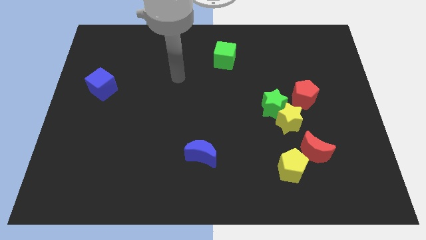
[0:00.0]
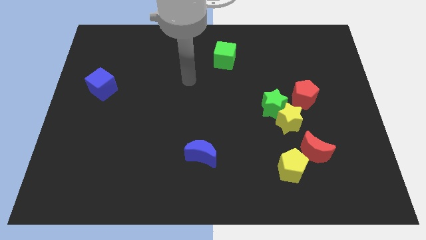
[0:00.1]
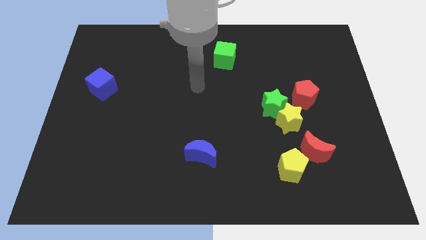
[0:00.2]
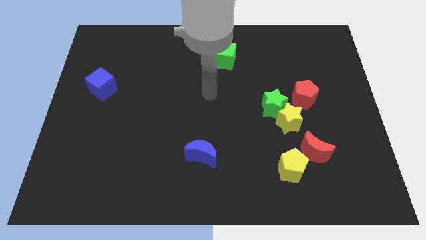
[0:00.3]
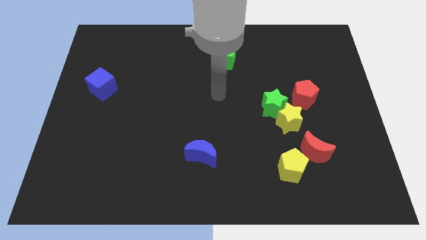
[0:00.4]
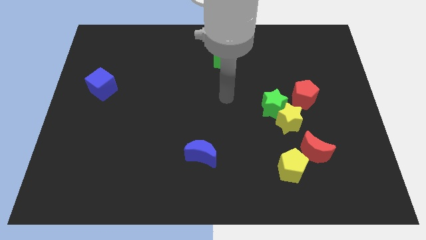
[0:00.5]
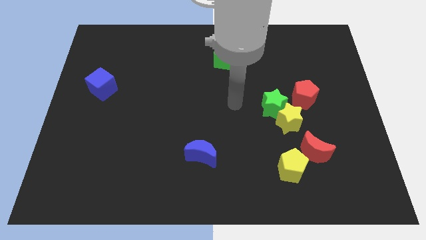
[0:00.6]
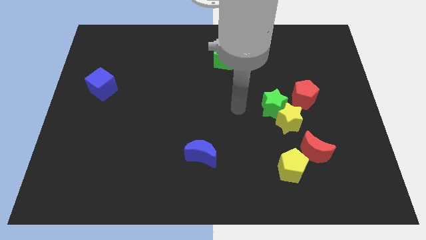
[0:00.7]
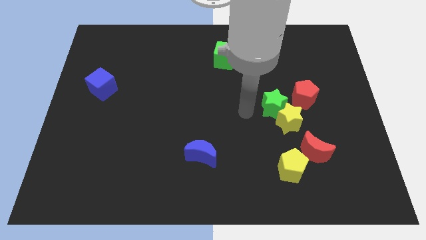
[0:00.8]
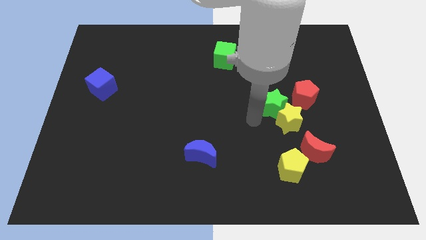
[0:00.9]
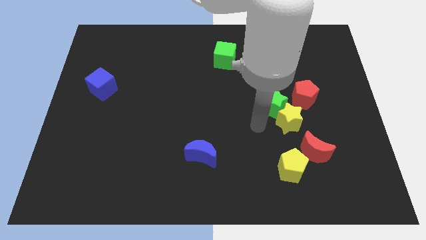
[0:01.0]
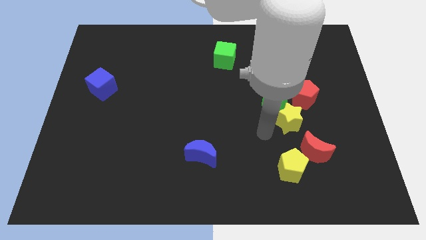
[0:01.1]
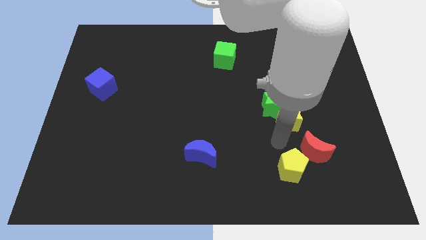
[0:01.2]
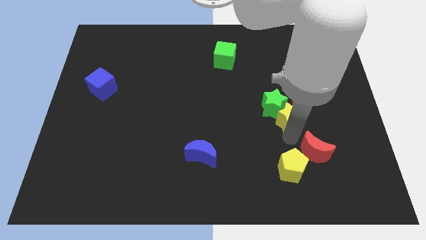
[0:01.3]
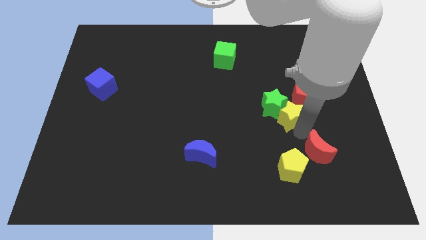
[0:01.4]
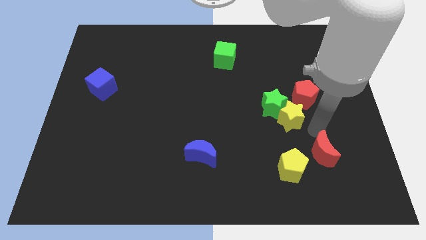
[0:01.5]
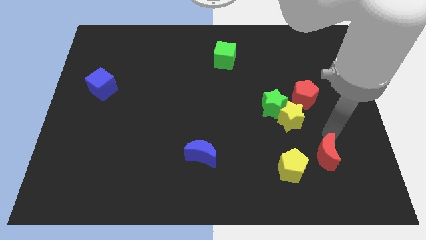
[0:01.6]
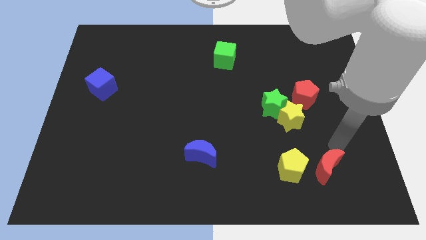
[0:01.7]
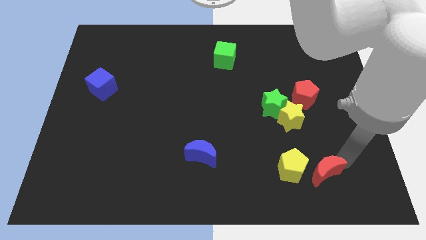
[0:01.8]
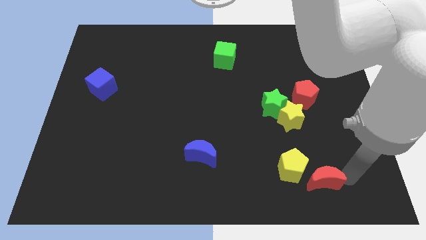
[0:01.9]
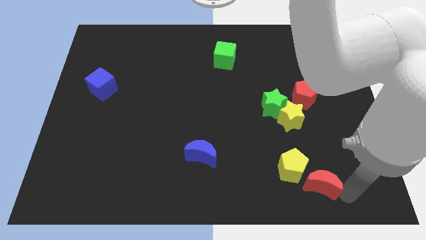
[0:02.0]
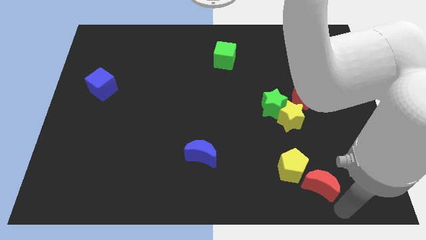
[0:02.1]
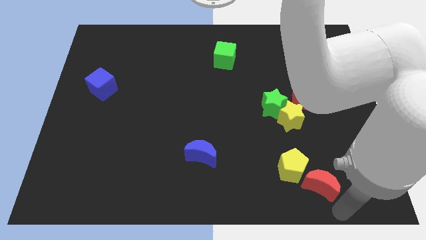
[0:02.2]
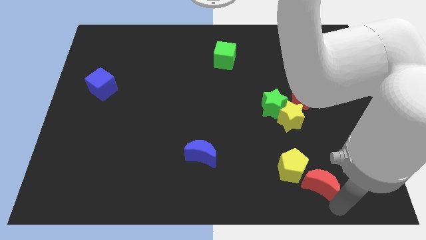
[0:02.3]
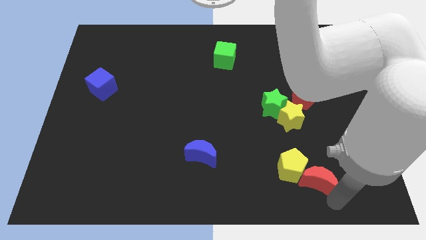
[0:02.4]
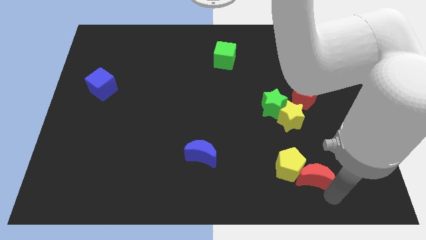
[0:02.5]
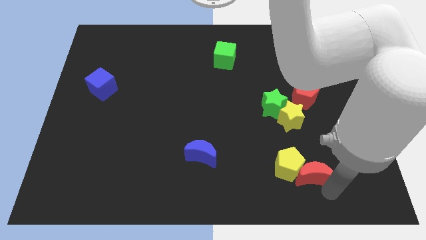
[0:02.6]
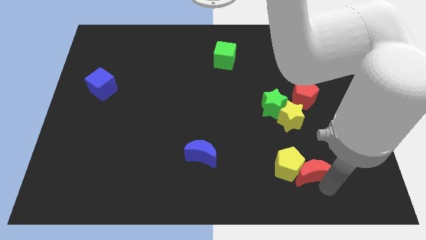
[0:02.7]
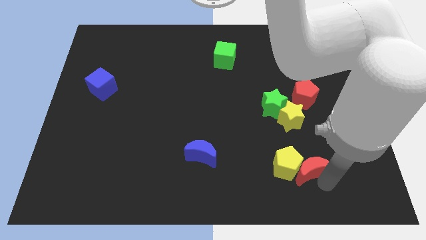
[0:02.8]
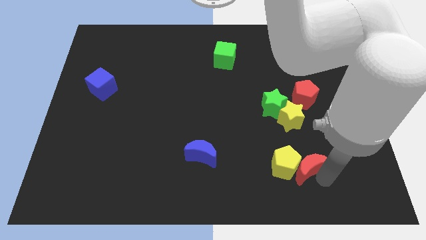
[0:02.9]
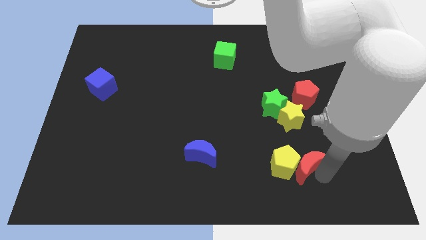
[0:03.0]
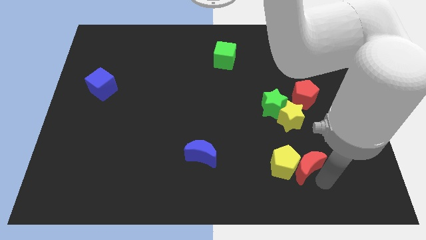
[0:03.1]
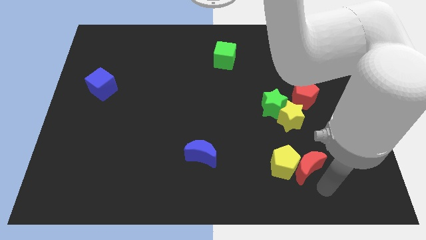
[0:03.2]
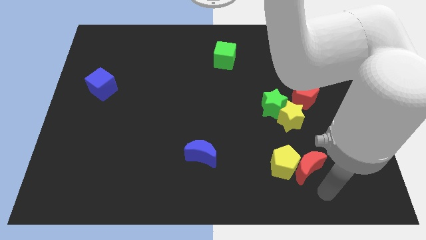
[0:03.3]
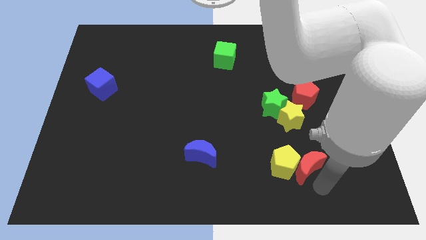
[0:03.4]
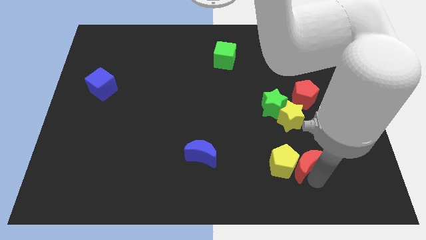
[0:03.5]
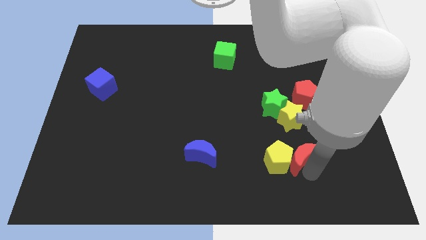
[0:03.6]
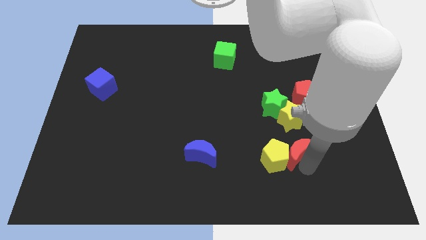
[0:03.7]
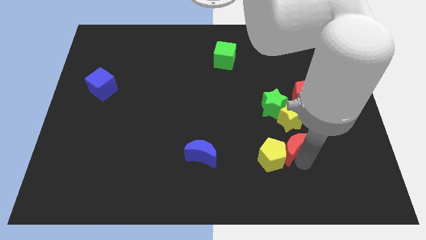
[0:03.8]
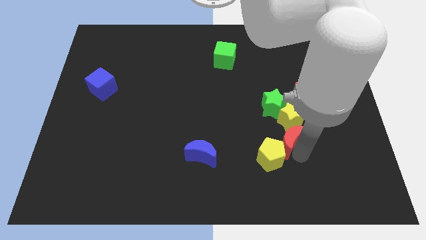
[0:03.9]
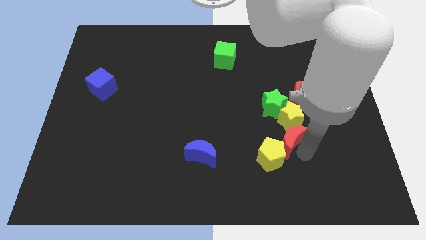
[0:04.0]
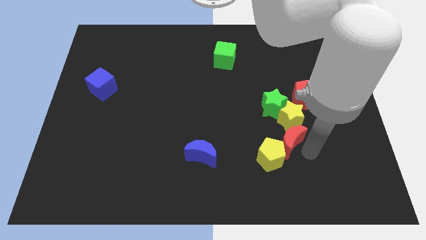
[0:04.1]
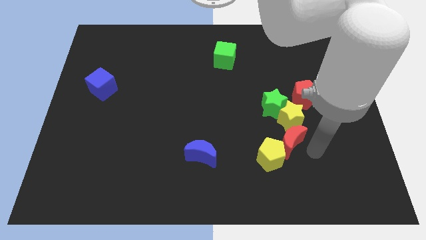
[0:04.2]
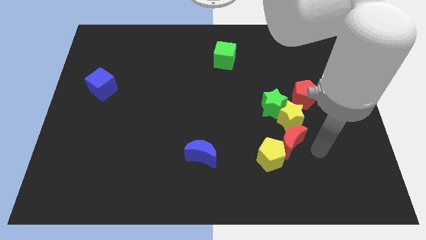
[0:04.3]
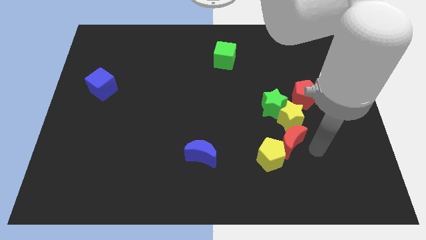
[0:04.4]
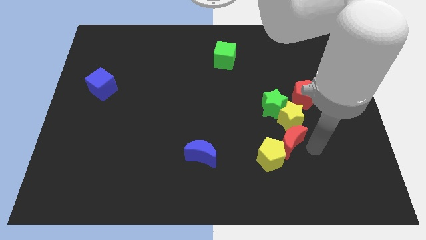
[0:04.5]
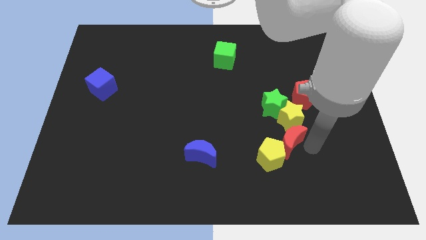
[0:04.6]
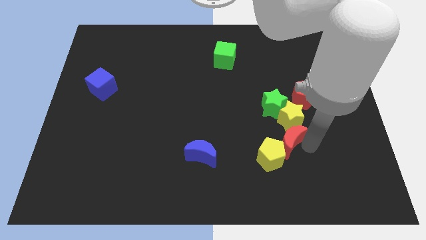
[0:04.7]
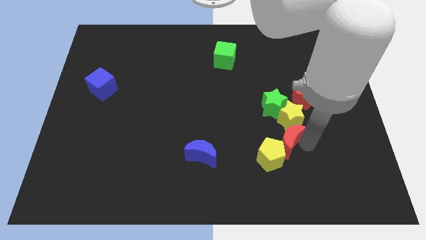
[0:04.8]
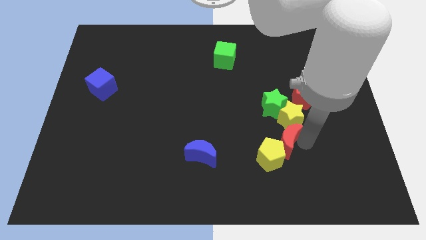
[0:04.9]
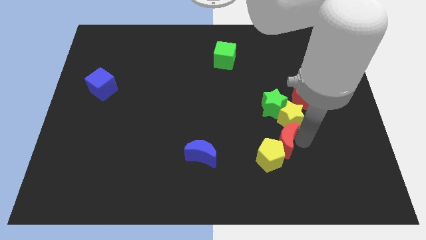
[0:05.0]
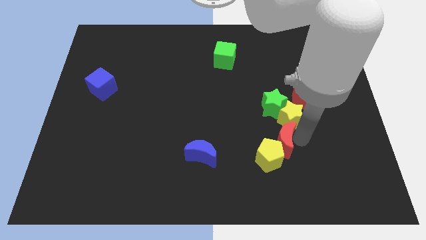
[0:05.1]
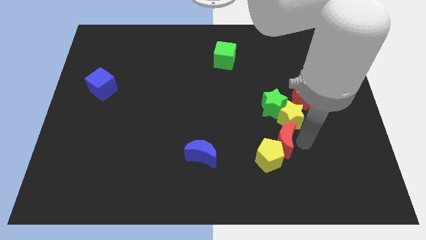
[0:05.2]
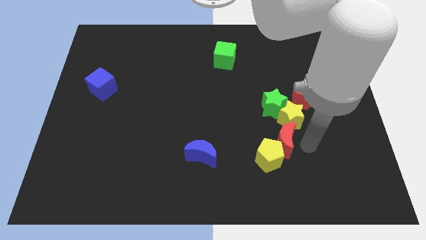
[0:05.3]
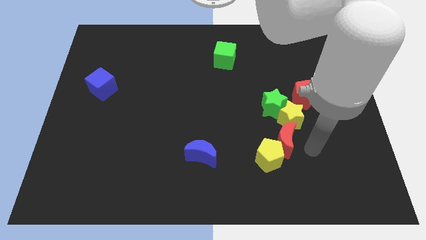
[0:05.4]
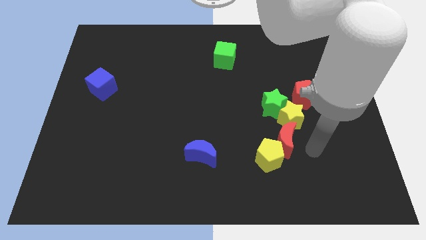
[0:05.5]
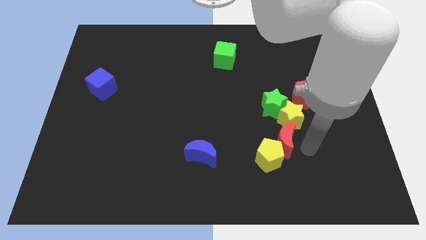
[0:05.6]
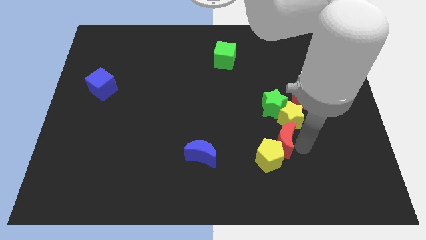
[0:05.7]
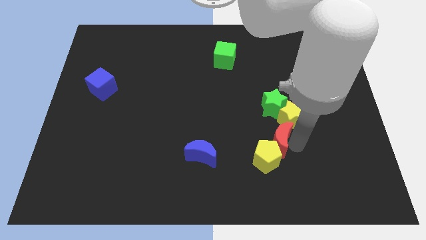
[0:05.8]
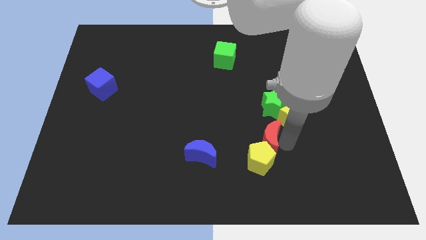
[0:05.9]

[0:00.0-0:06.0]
push the red moon up and left slightly

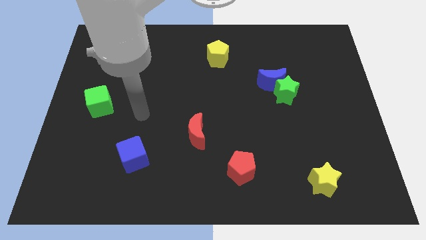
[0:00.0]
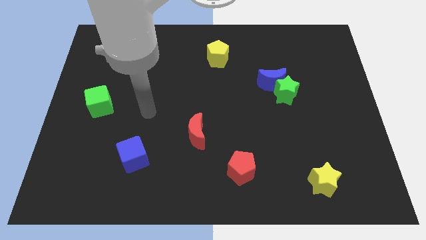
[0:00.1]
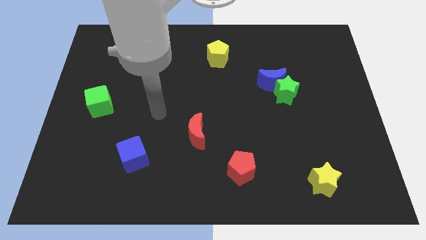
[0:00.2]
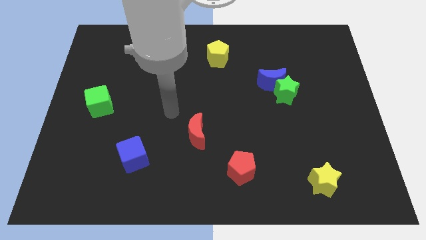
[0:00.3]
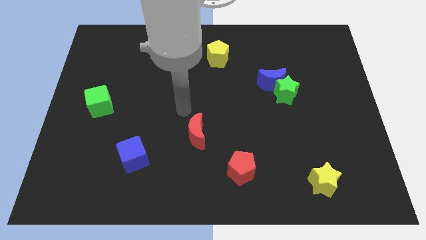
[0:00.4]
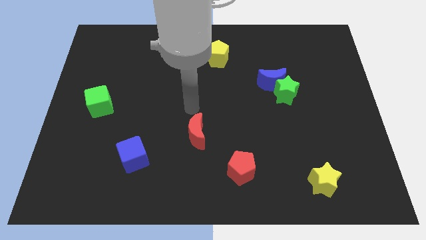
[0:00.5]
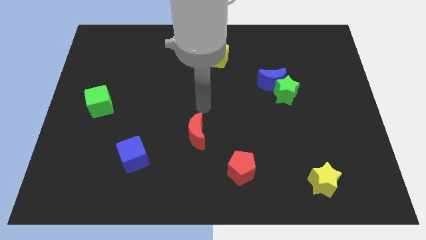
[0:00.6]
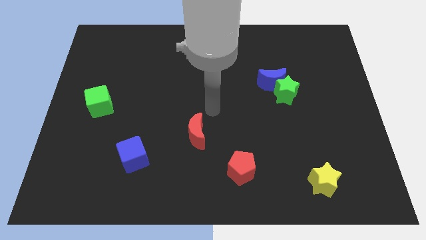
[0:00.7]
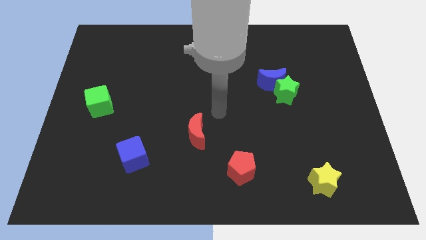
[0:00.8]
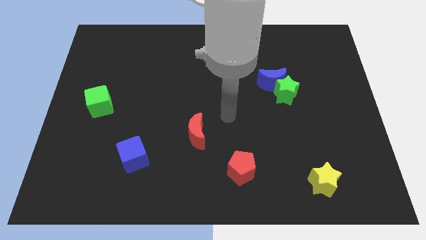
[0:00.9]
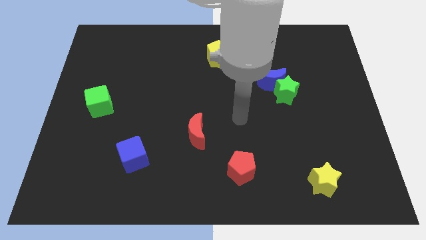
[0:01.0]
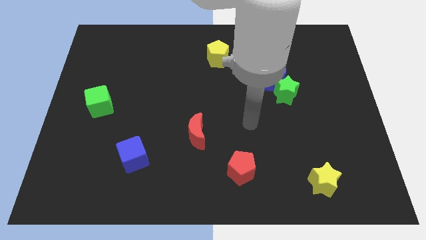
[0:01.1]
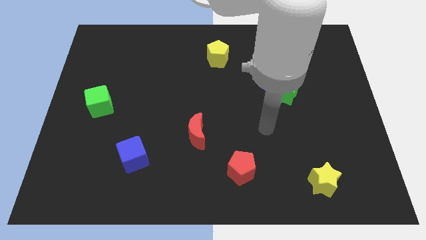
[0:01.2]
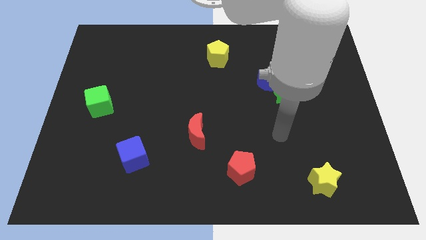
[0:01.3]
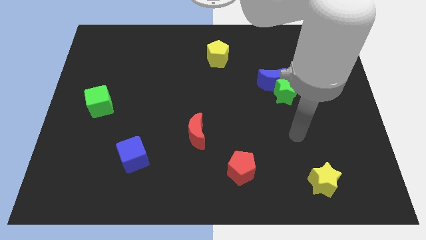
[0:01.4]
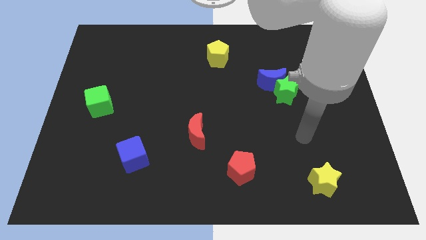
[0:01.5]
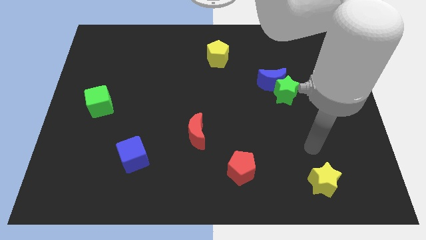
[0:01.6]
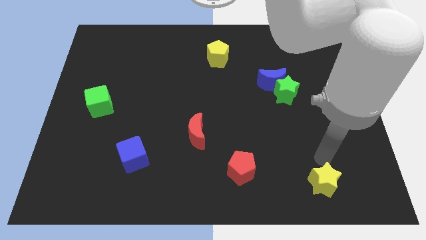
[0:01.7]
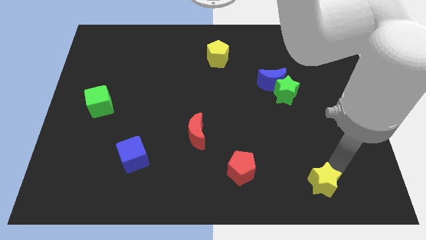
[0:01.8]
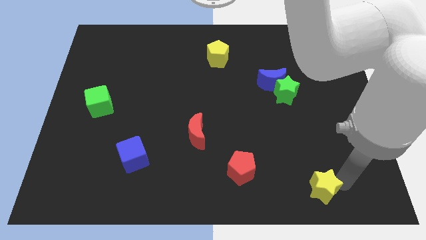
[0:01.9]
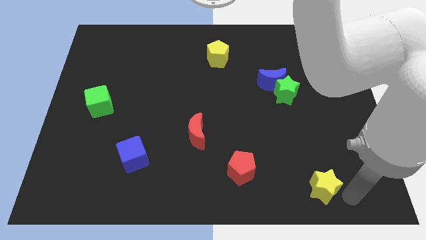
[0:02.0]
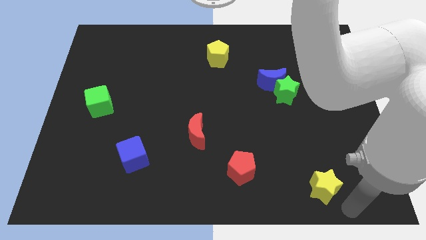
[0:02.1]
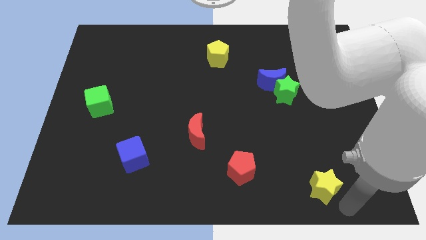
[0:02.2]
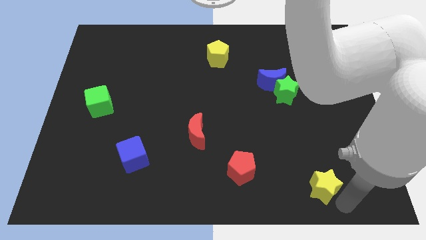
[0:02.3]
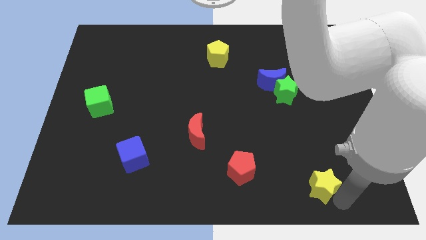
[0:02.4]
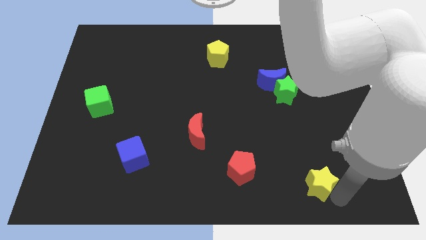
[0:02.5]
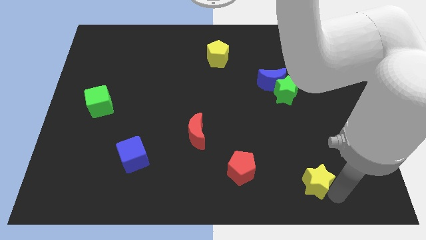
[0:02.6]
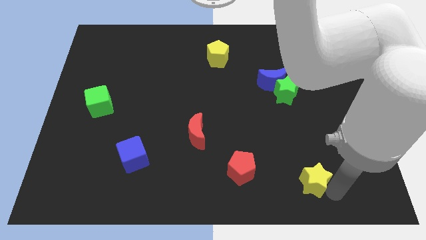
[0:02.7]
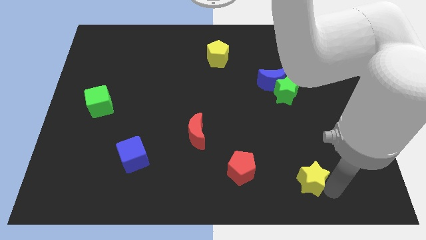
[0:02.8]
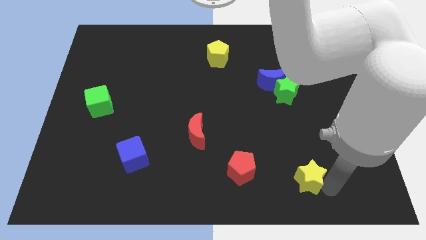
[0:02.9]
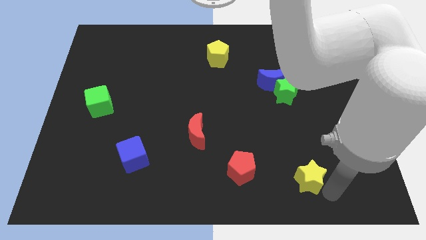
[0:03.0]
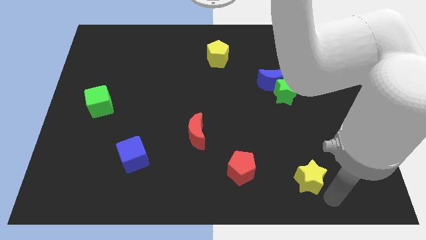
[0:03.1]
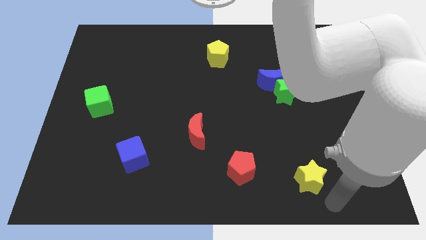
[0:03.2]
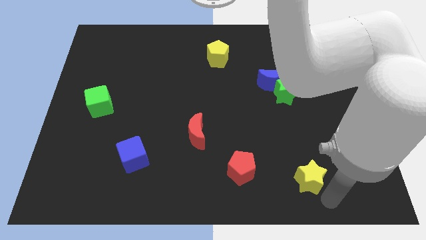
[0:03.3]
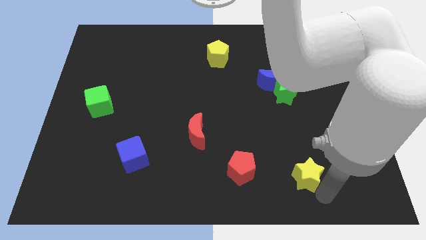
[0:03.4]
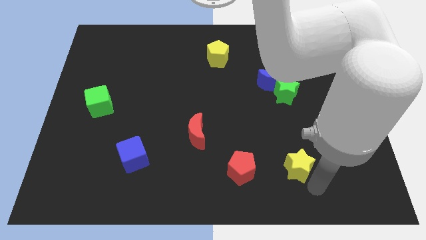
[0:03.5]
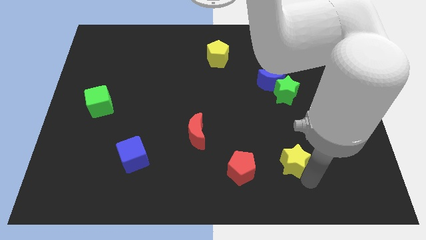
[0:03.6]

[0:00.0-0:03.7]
move the yellow star a little bit up and to the left
